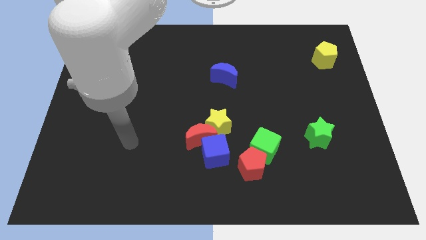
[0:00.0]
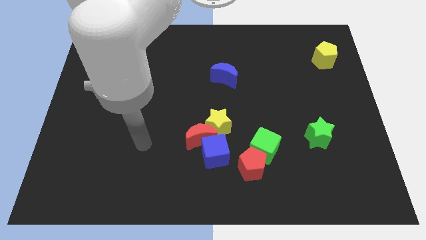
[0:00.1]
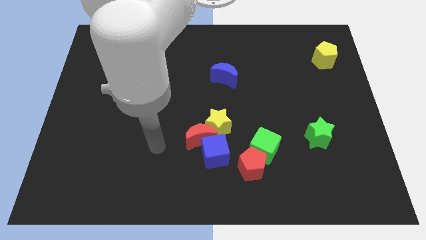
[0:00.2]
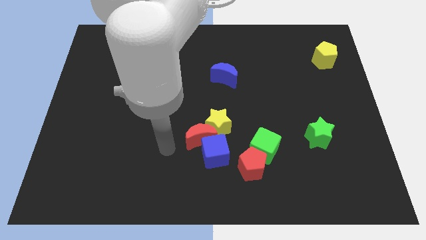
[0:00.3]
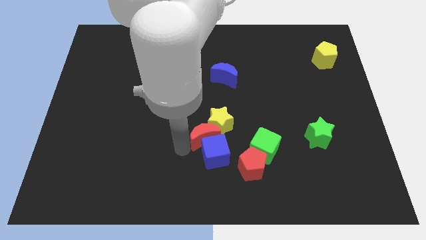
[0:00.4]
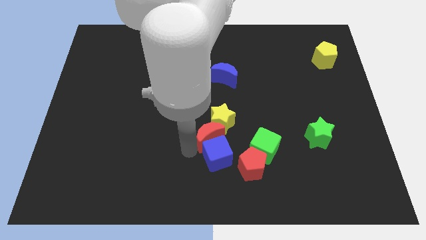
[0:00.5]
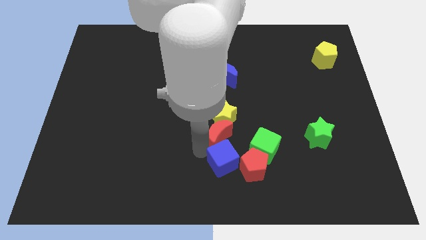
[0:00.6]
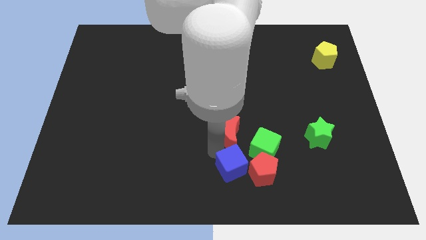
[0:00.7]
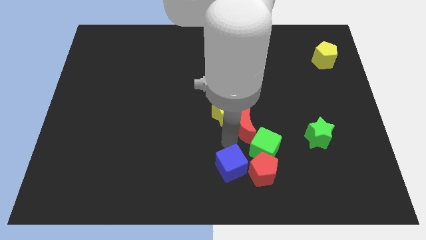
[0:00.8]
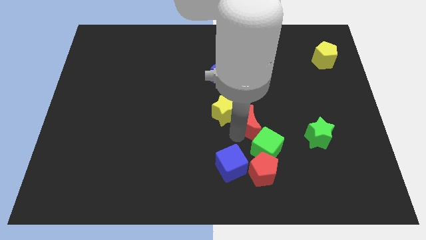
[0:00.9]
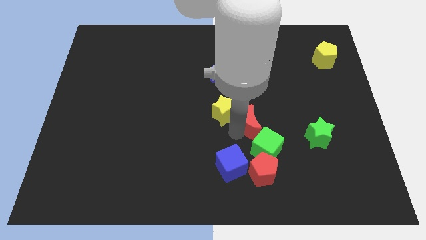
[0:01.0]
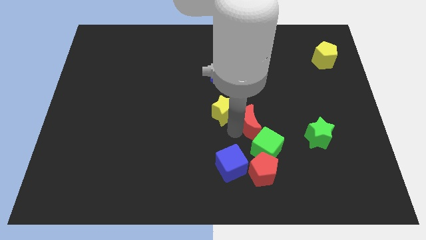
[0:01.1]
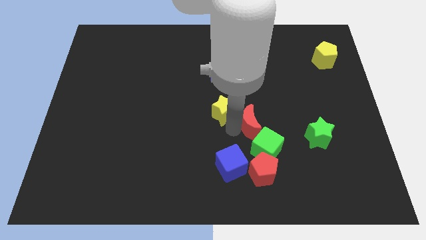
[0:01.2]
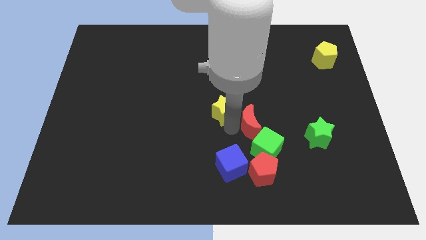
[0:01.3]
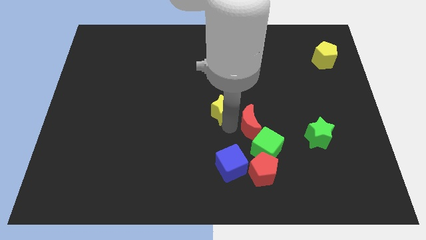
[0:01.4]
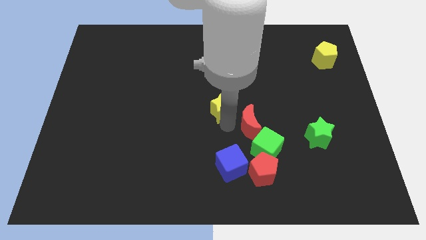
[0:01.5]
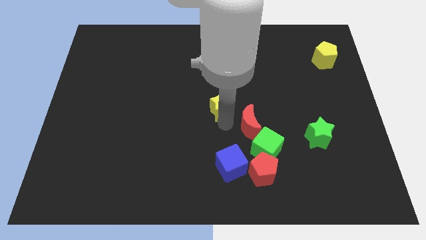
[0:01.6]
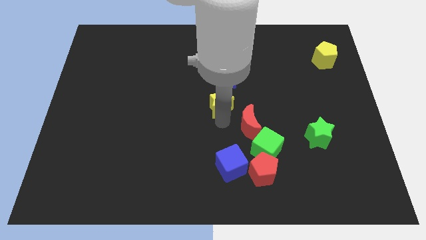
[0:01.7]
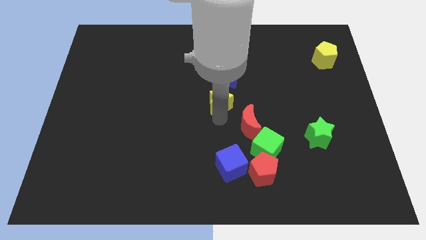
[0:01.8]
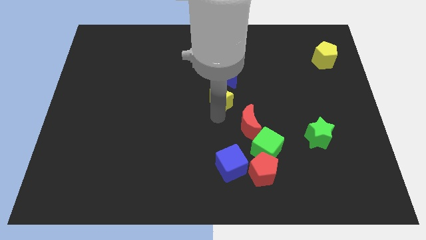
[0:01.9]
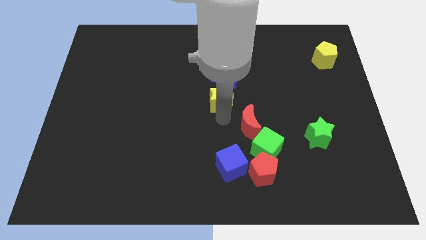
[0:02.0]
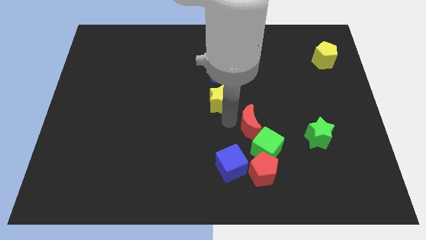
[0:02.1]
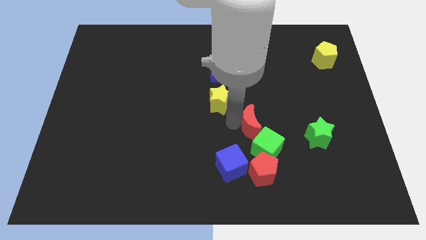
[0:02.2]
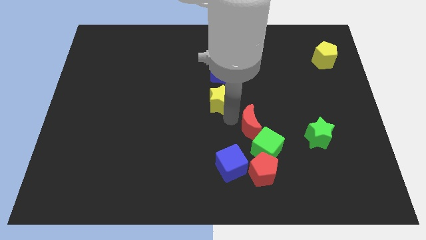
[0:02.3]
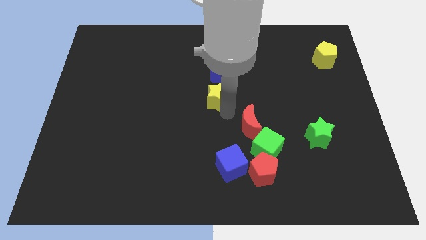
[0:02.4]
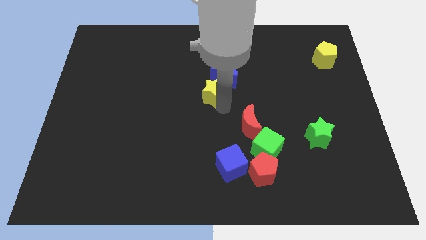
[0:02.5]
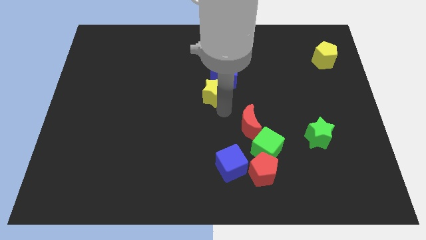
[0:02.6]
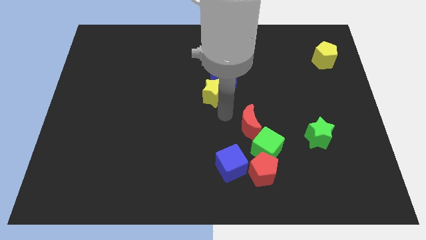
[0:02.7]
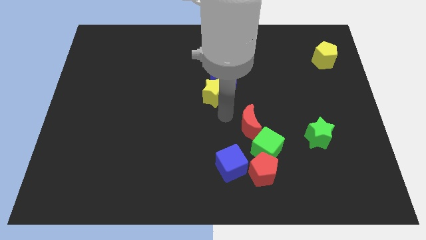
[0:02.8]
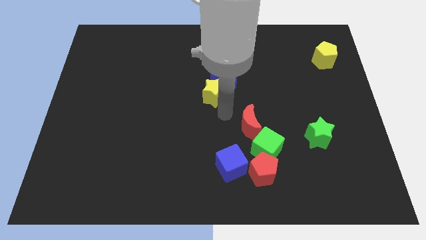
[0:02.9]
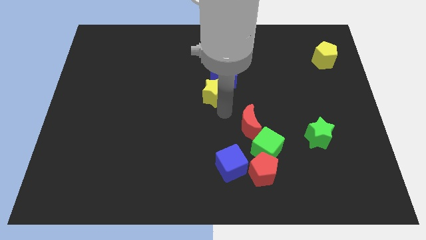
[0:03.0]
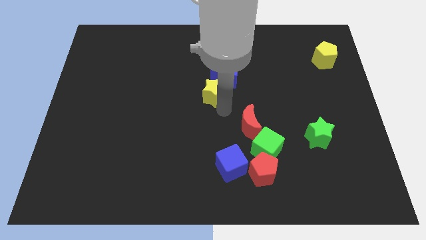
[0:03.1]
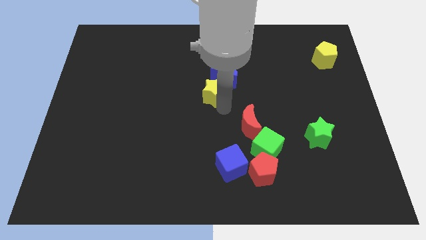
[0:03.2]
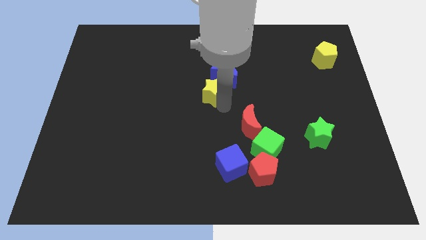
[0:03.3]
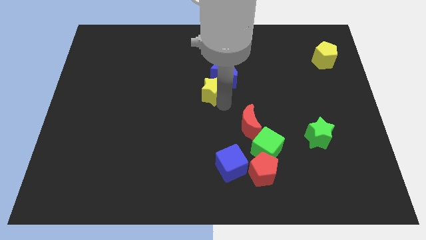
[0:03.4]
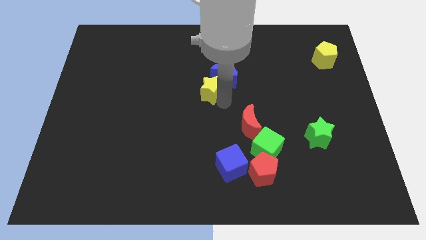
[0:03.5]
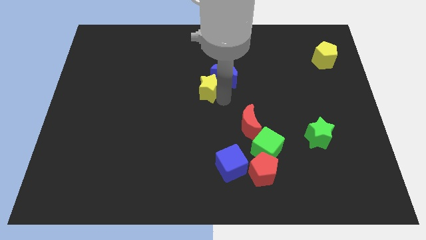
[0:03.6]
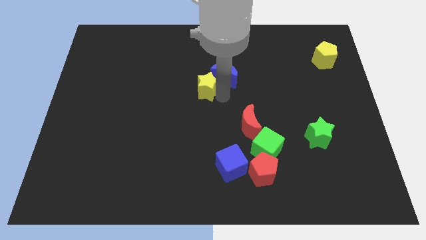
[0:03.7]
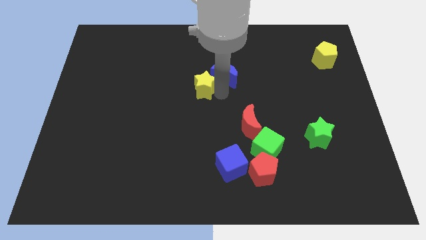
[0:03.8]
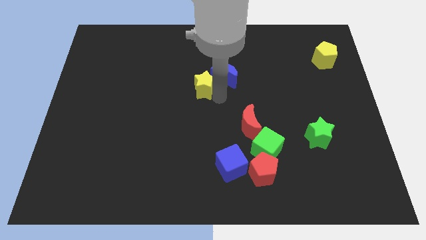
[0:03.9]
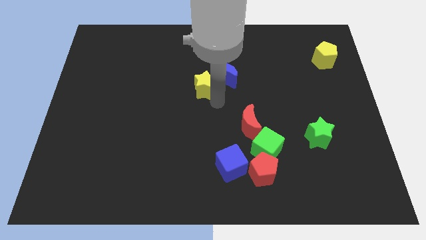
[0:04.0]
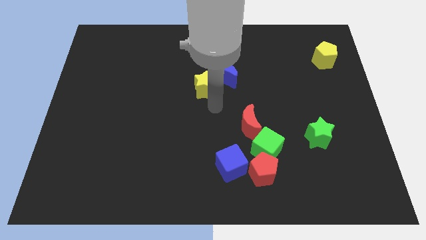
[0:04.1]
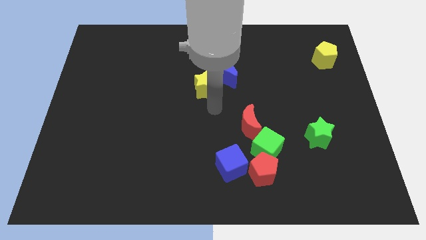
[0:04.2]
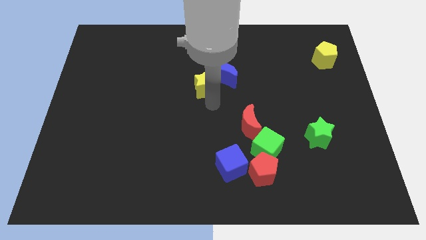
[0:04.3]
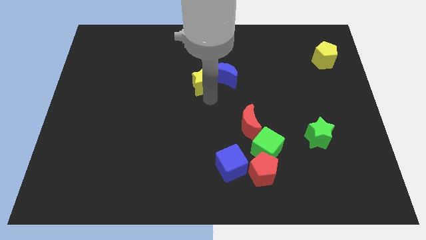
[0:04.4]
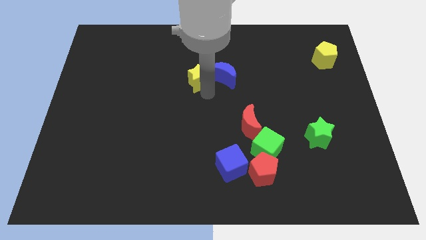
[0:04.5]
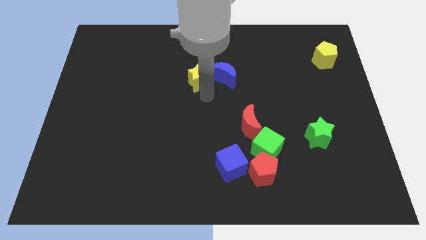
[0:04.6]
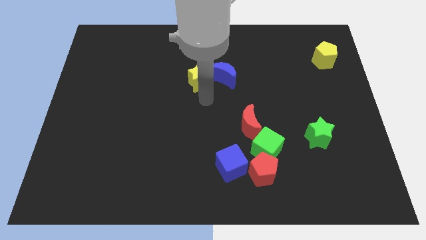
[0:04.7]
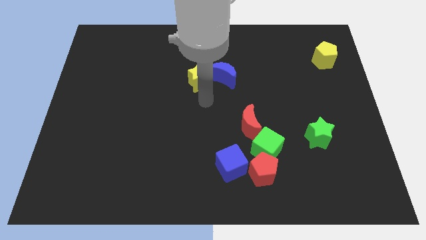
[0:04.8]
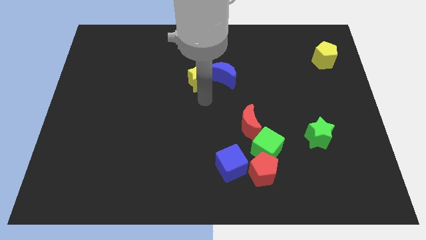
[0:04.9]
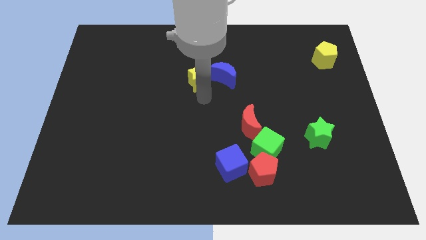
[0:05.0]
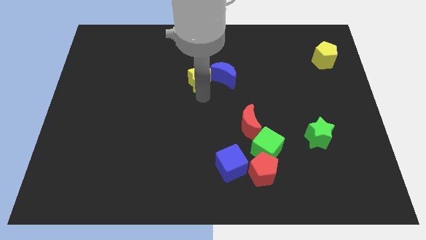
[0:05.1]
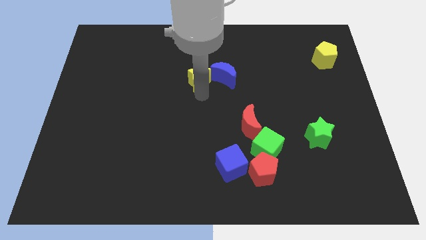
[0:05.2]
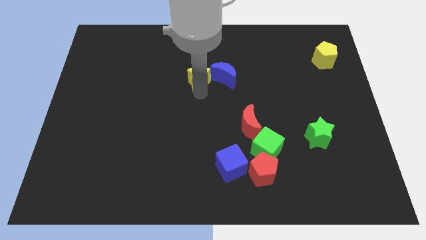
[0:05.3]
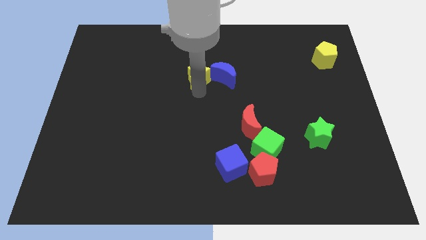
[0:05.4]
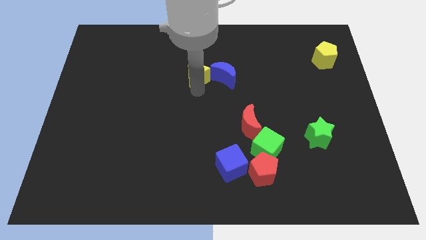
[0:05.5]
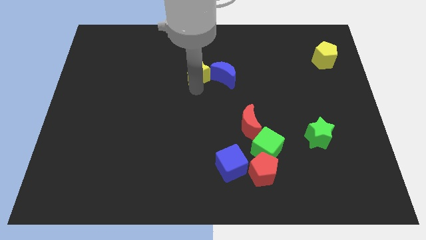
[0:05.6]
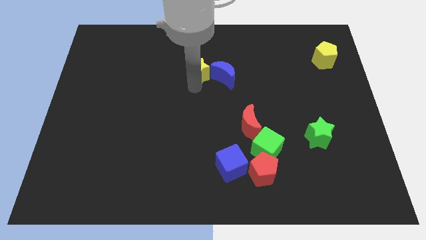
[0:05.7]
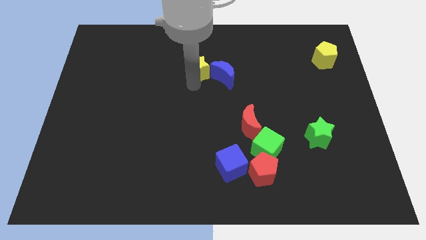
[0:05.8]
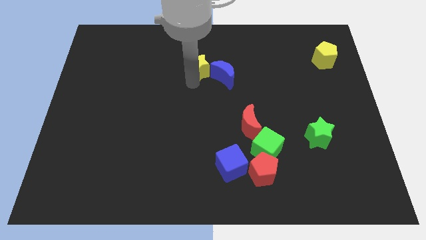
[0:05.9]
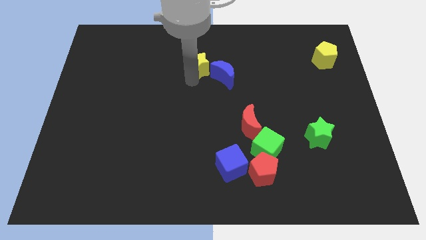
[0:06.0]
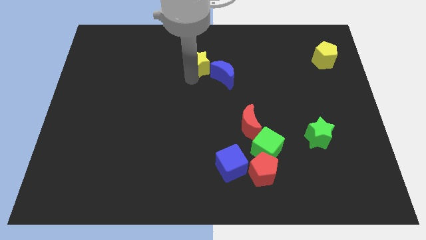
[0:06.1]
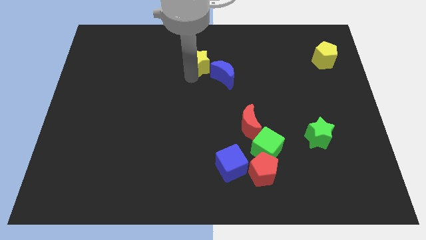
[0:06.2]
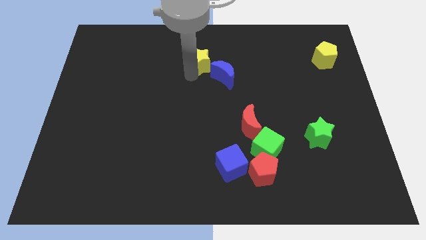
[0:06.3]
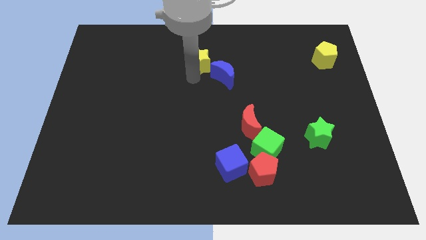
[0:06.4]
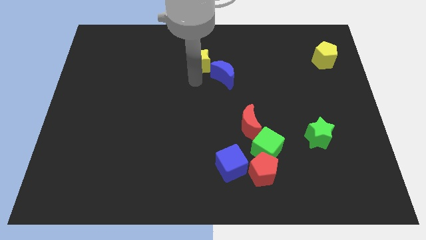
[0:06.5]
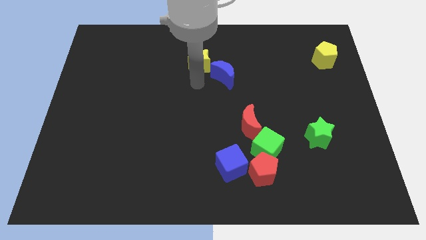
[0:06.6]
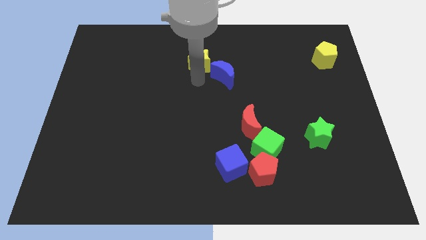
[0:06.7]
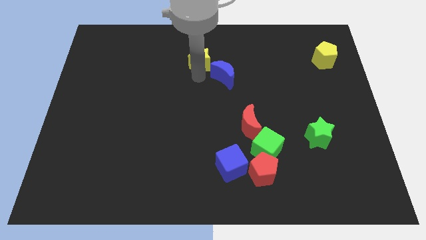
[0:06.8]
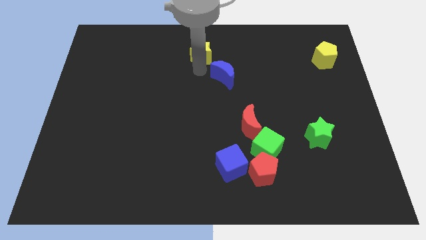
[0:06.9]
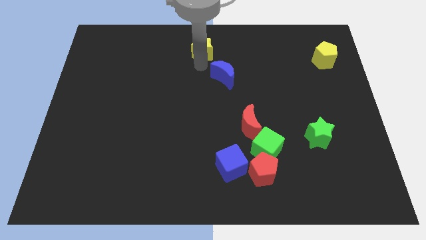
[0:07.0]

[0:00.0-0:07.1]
slide the yellow star to the top
